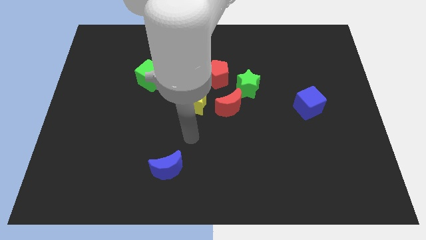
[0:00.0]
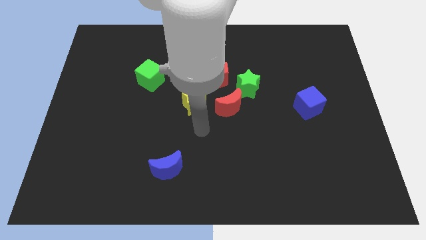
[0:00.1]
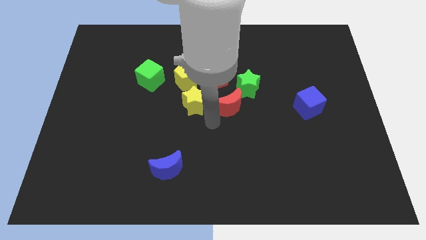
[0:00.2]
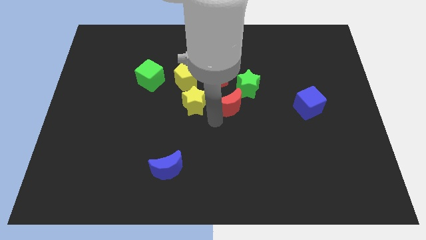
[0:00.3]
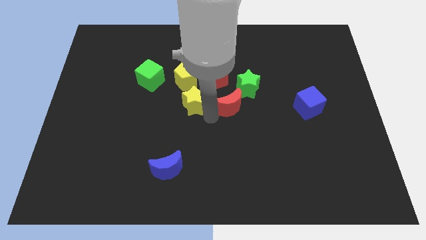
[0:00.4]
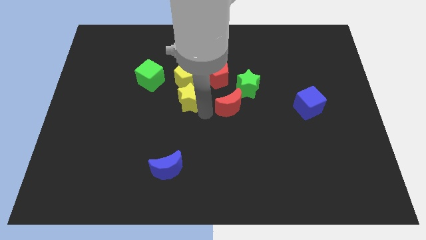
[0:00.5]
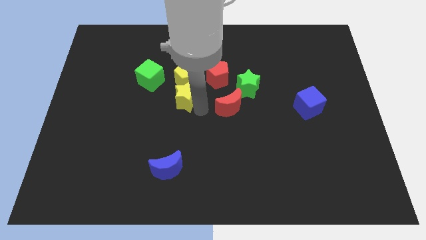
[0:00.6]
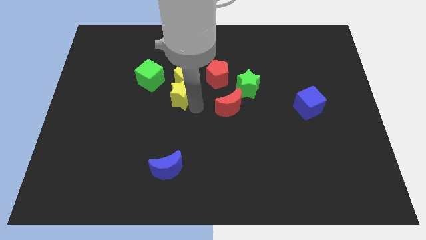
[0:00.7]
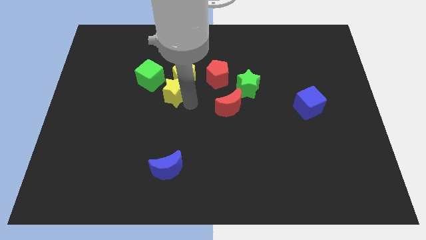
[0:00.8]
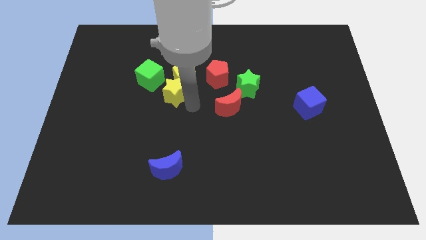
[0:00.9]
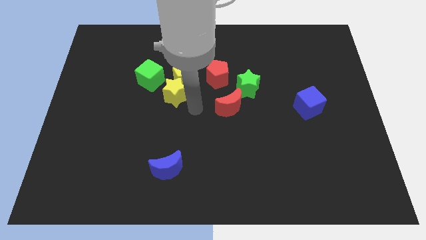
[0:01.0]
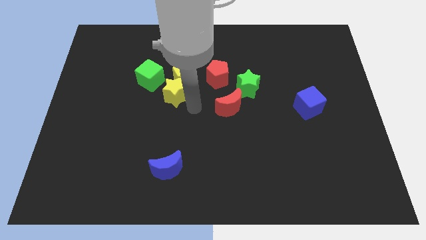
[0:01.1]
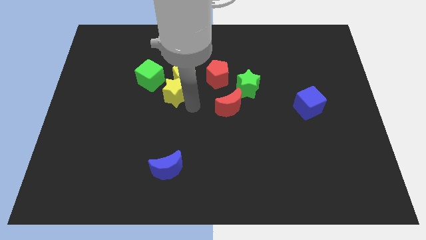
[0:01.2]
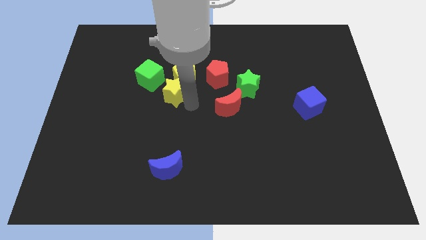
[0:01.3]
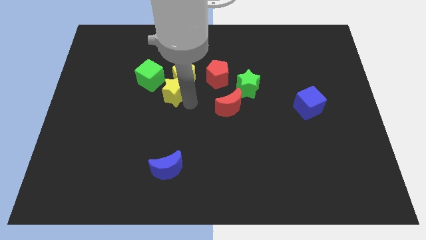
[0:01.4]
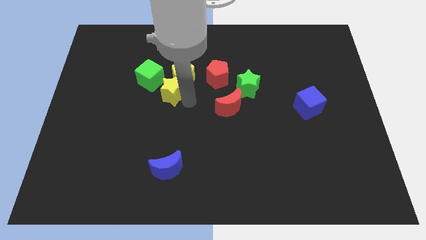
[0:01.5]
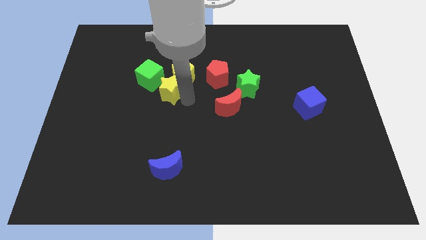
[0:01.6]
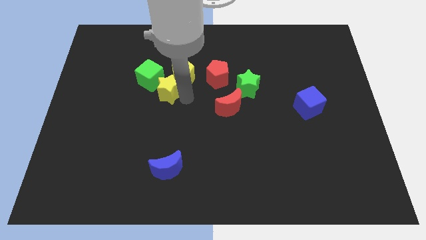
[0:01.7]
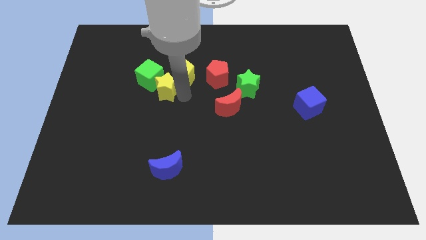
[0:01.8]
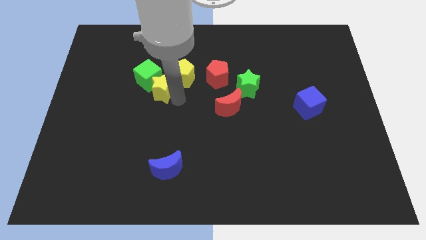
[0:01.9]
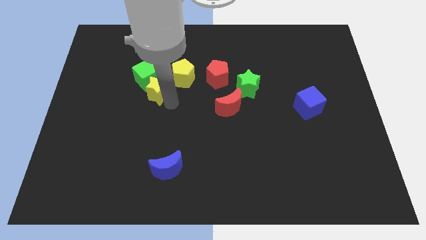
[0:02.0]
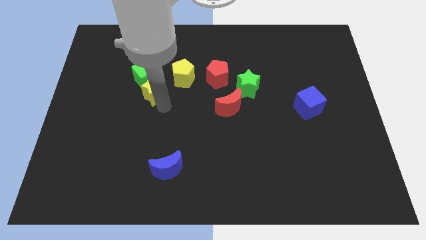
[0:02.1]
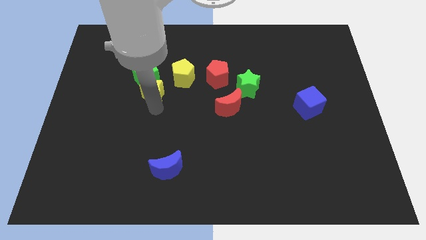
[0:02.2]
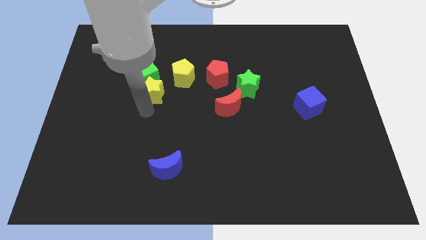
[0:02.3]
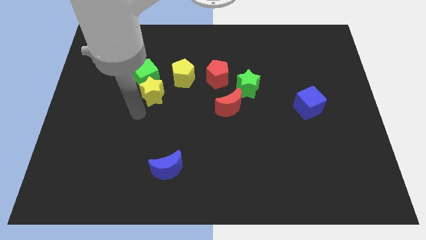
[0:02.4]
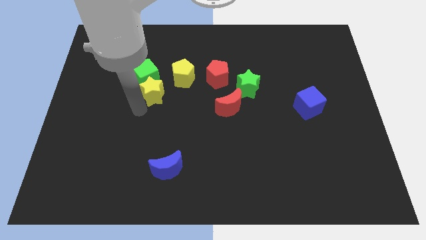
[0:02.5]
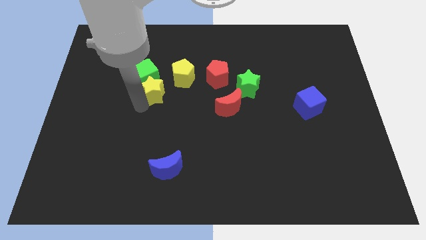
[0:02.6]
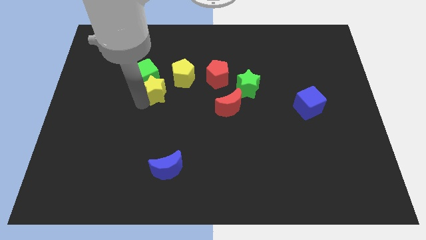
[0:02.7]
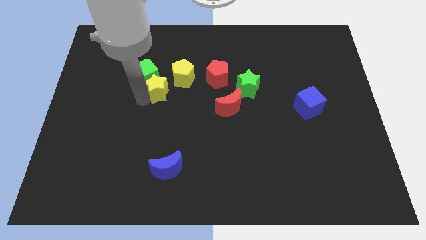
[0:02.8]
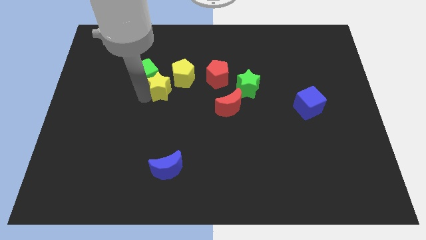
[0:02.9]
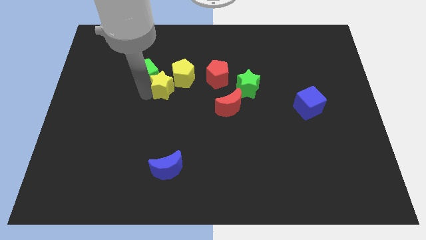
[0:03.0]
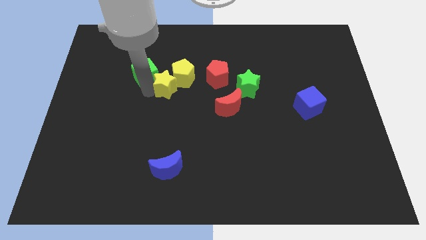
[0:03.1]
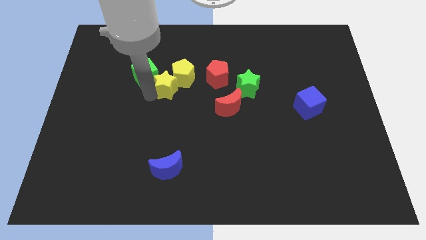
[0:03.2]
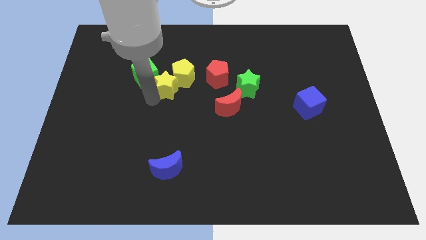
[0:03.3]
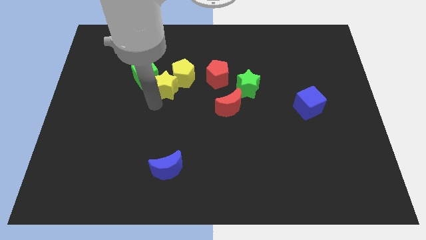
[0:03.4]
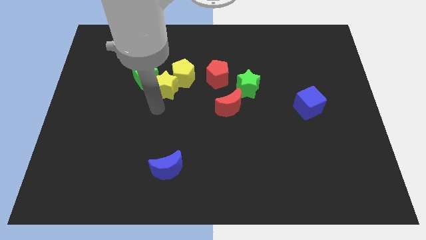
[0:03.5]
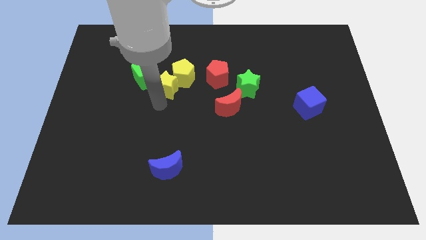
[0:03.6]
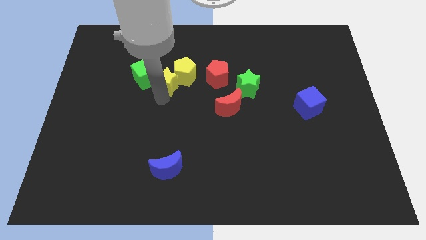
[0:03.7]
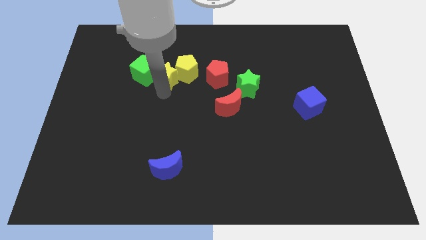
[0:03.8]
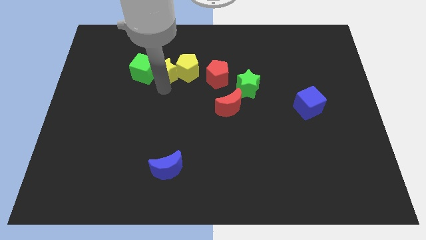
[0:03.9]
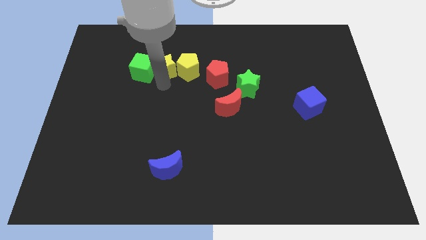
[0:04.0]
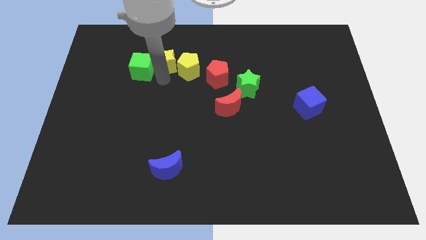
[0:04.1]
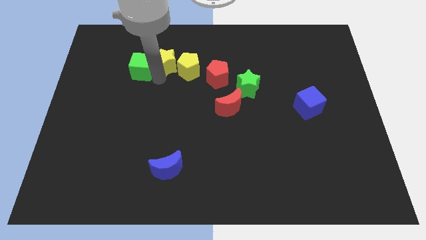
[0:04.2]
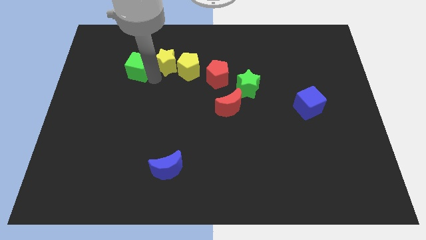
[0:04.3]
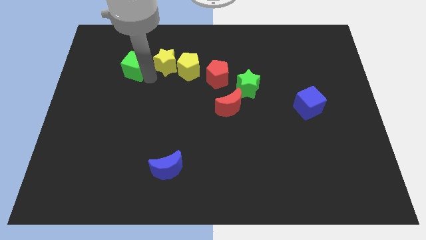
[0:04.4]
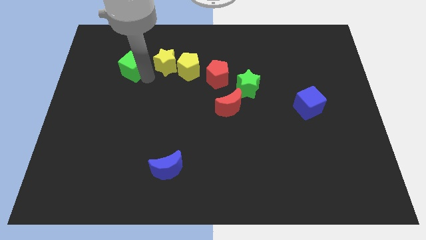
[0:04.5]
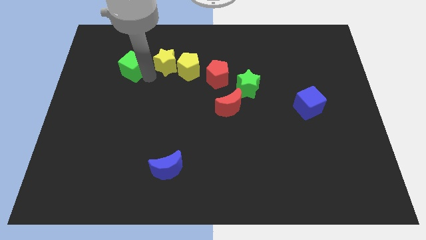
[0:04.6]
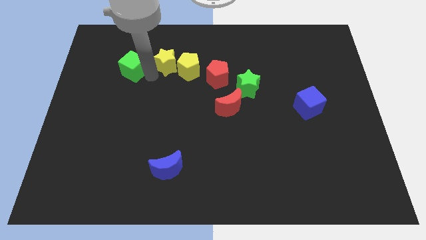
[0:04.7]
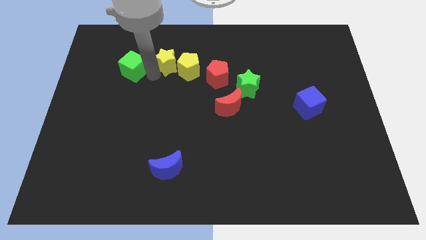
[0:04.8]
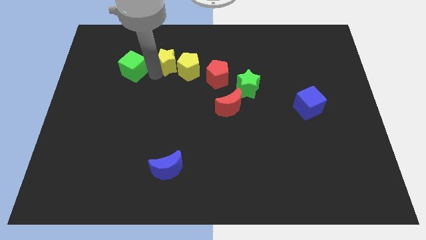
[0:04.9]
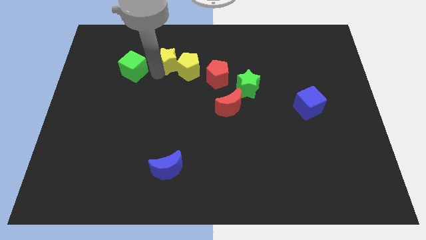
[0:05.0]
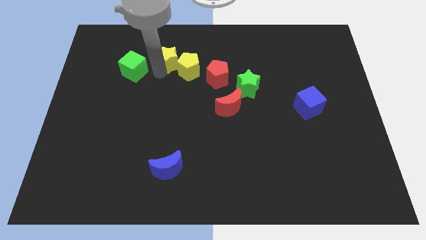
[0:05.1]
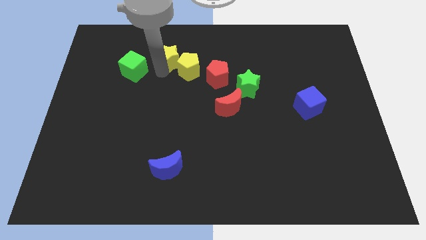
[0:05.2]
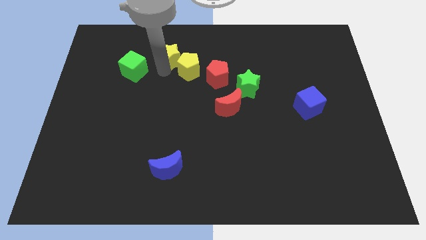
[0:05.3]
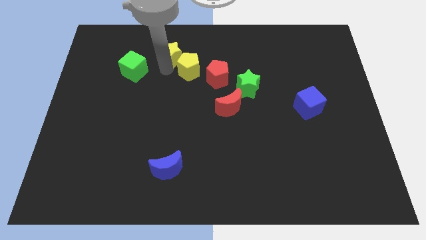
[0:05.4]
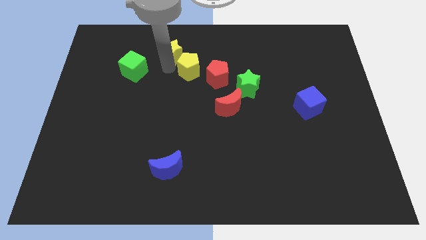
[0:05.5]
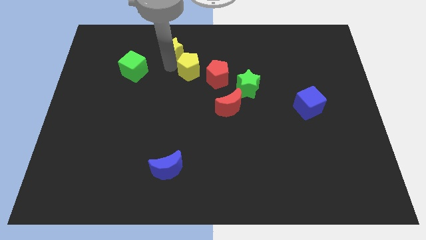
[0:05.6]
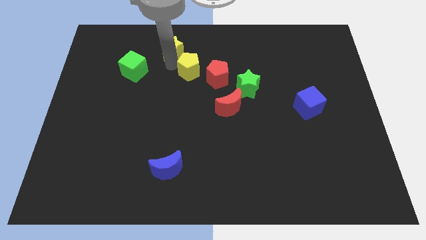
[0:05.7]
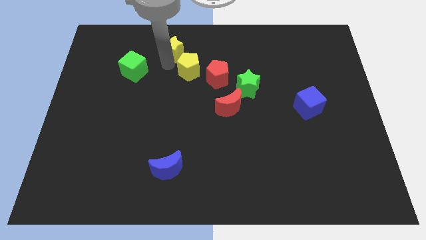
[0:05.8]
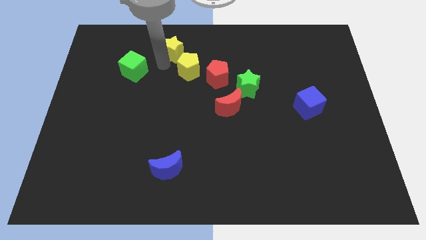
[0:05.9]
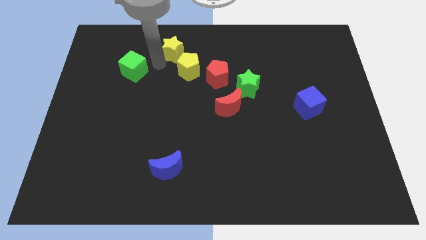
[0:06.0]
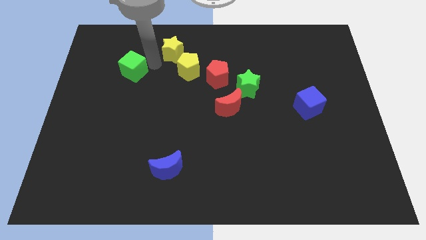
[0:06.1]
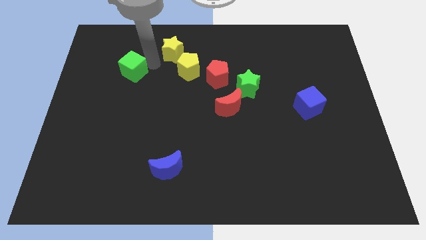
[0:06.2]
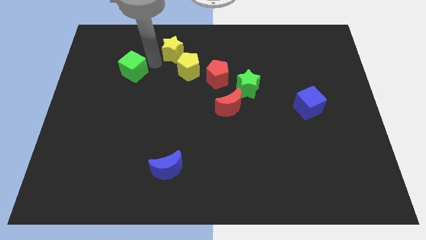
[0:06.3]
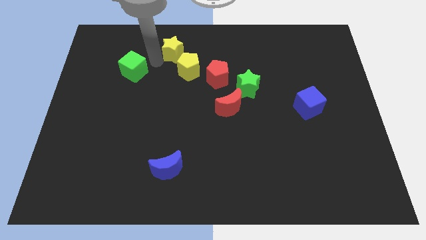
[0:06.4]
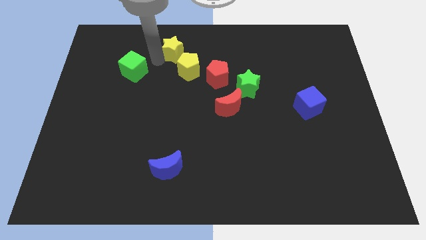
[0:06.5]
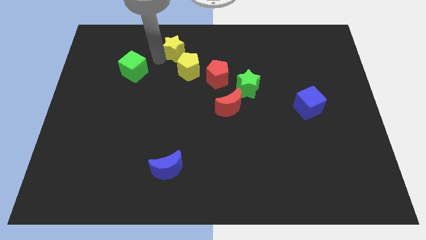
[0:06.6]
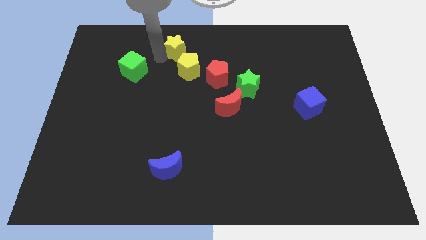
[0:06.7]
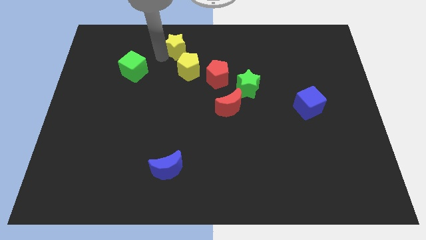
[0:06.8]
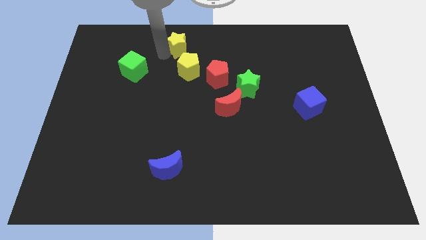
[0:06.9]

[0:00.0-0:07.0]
move the yellow star to the top
